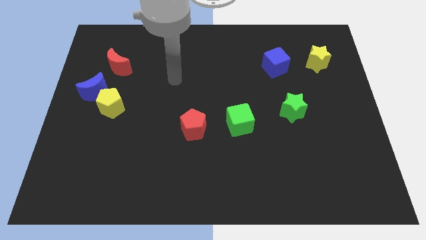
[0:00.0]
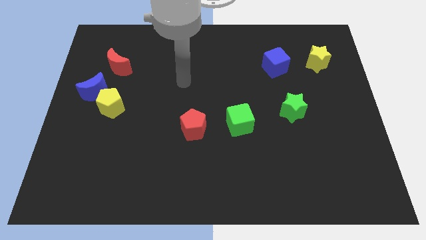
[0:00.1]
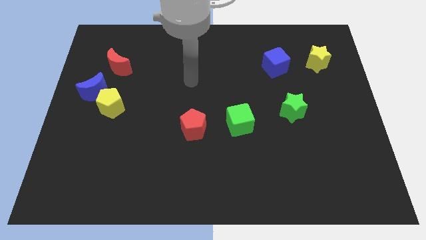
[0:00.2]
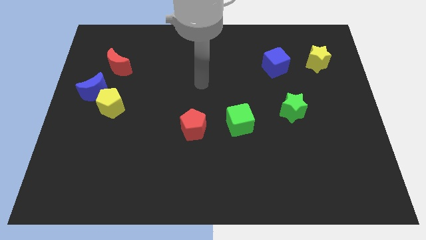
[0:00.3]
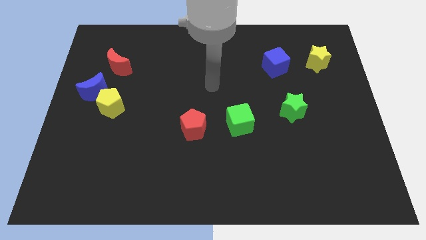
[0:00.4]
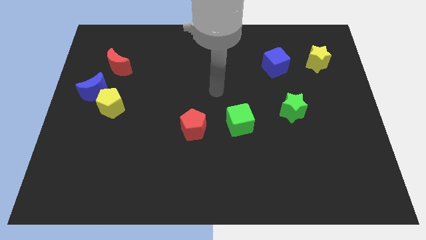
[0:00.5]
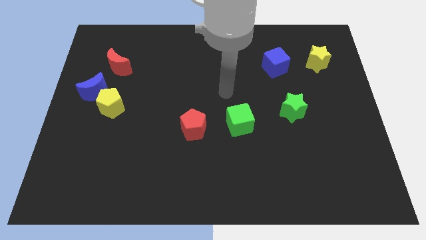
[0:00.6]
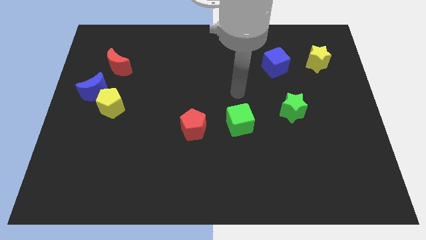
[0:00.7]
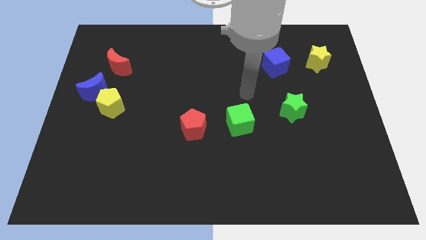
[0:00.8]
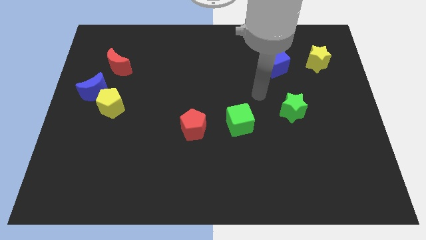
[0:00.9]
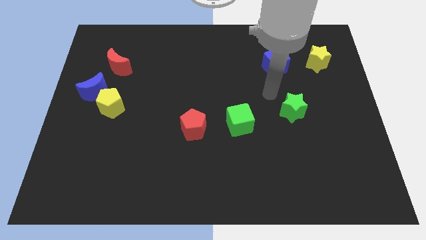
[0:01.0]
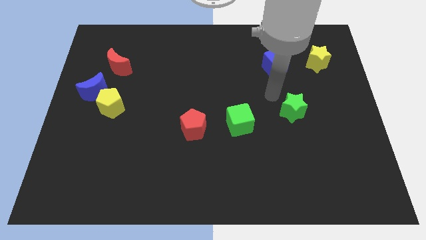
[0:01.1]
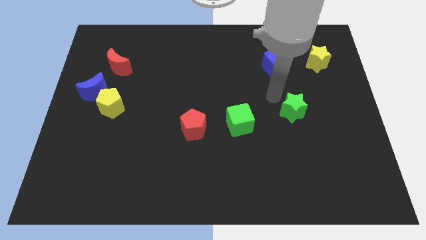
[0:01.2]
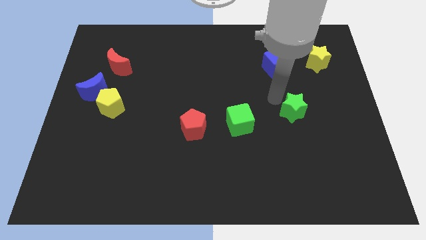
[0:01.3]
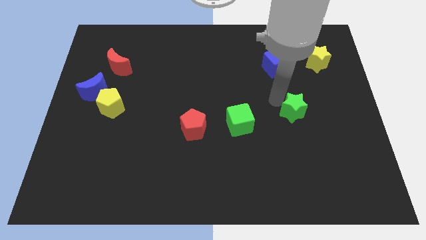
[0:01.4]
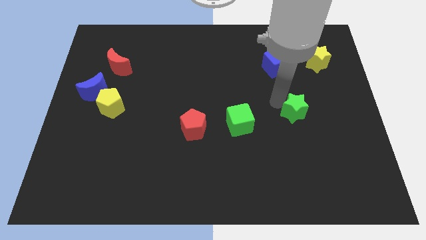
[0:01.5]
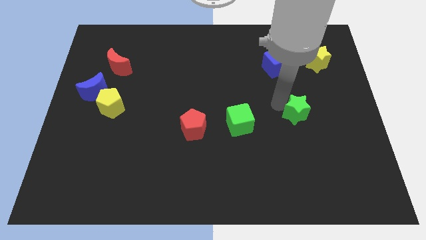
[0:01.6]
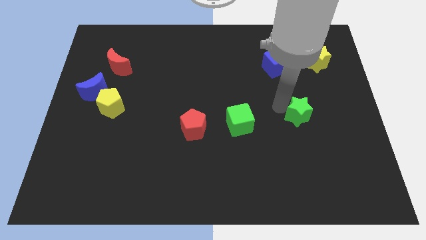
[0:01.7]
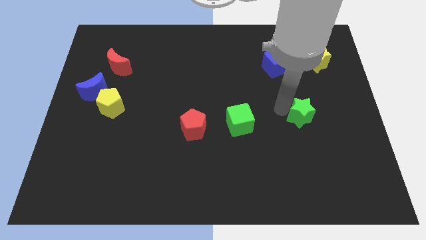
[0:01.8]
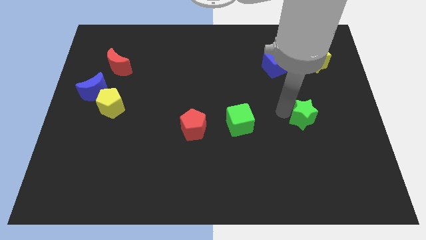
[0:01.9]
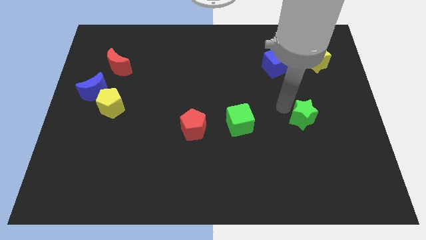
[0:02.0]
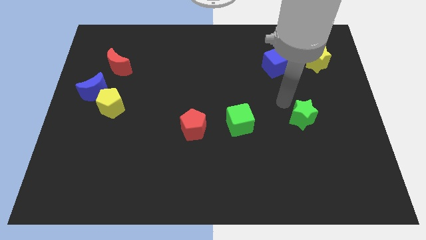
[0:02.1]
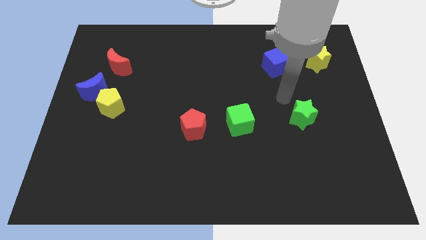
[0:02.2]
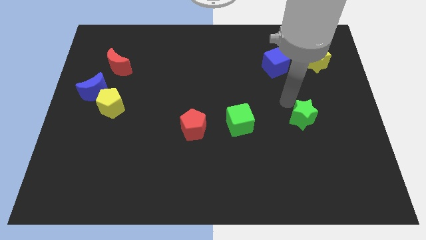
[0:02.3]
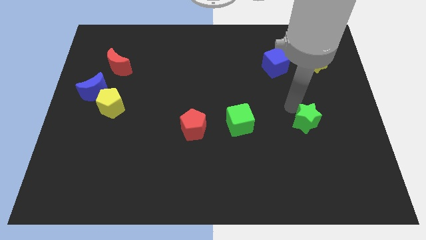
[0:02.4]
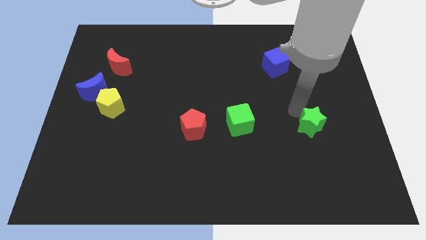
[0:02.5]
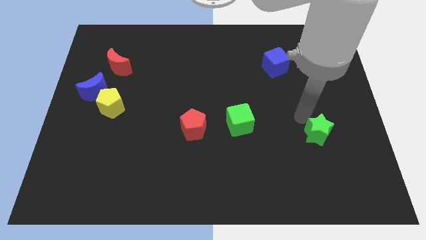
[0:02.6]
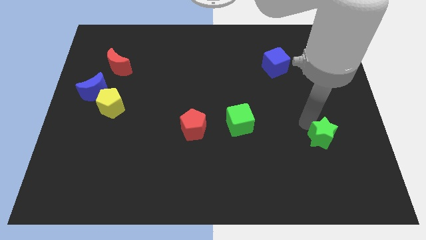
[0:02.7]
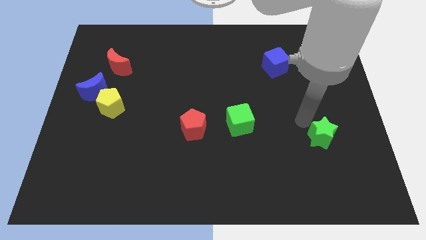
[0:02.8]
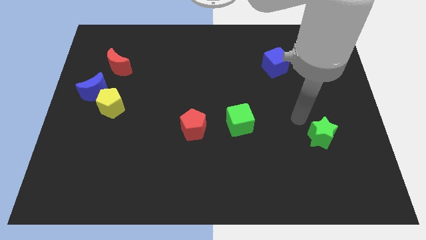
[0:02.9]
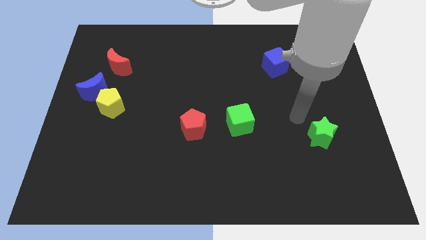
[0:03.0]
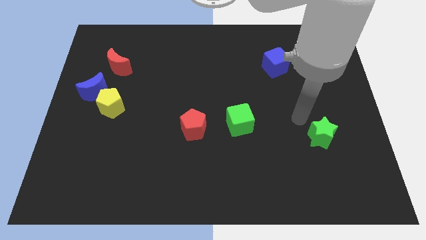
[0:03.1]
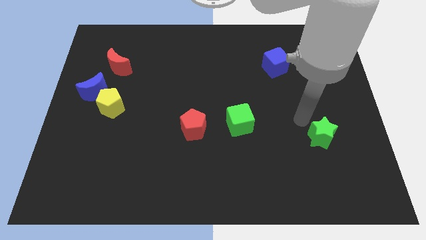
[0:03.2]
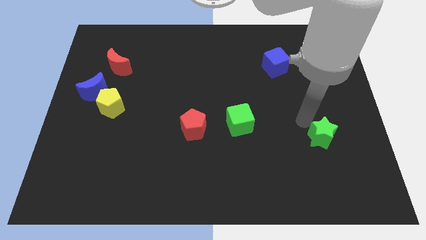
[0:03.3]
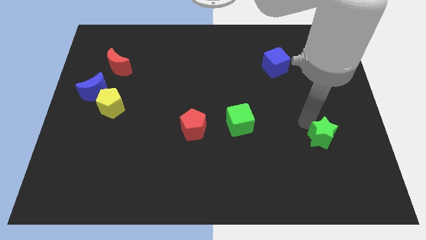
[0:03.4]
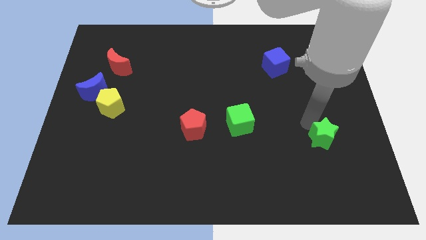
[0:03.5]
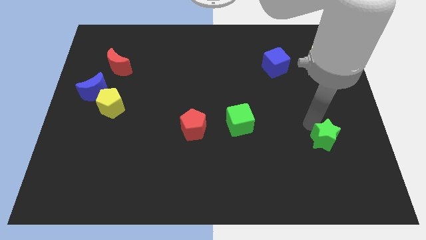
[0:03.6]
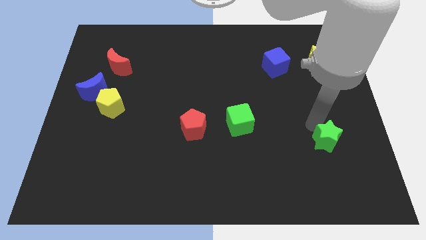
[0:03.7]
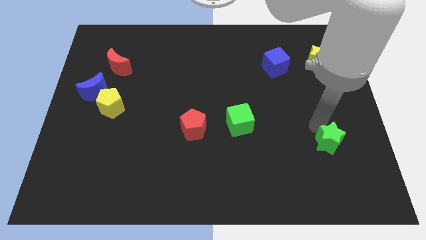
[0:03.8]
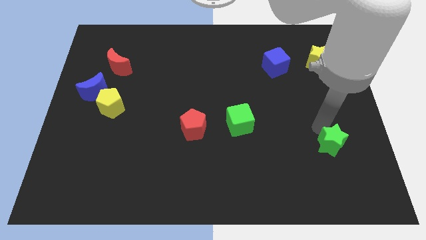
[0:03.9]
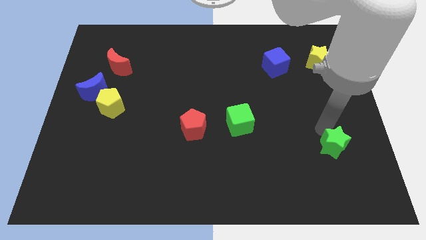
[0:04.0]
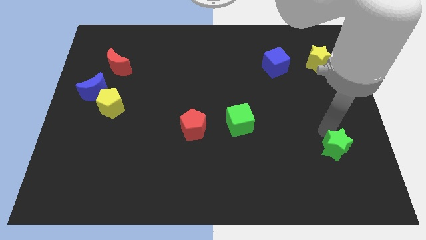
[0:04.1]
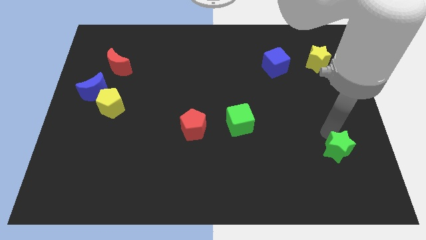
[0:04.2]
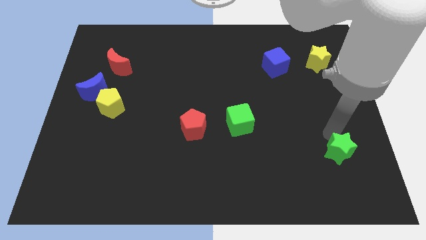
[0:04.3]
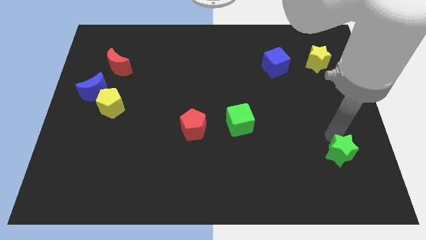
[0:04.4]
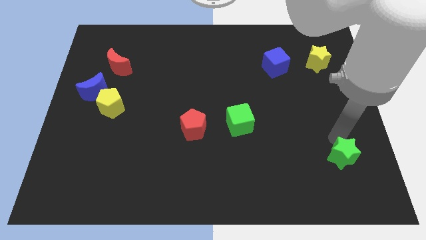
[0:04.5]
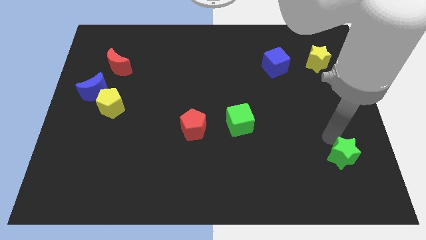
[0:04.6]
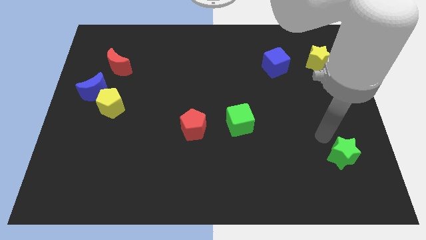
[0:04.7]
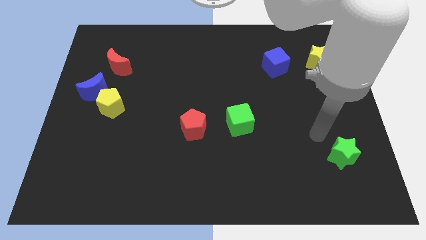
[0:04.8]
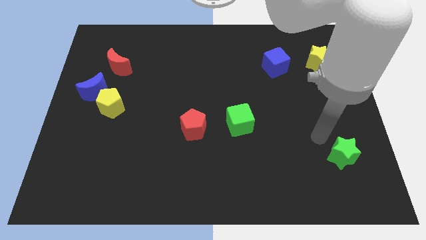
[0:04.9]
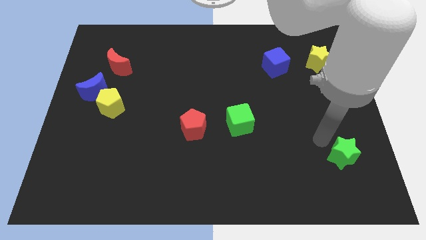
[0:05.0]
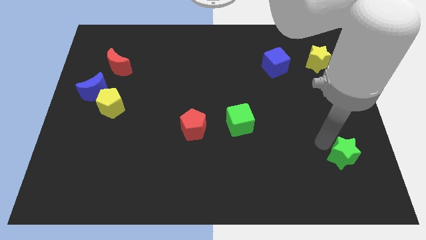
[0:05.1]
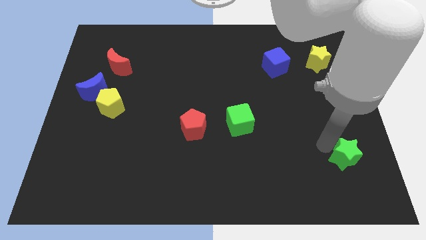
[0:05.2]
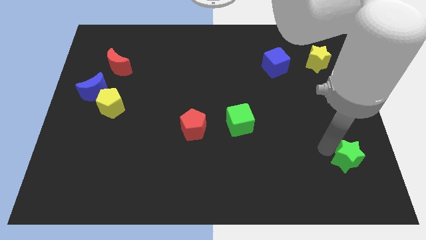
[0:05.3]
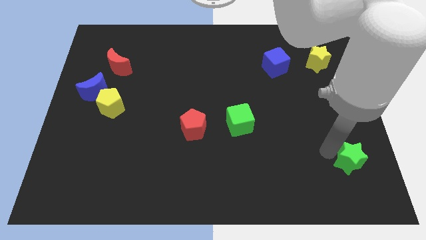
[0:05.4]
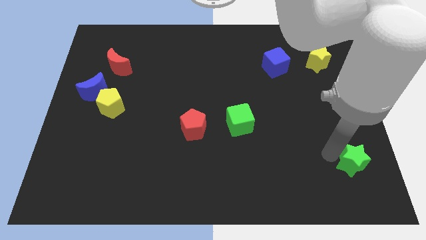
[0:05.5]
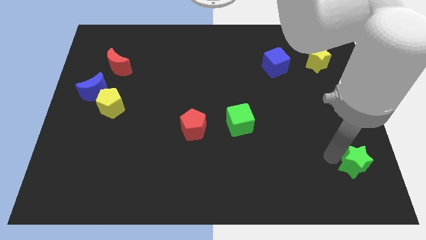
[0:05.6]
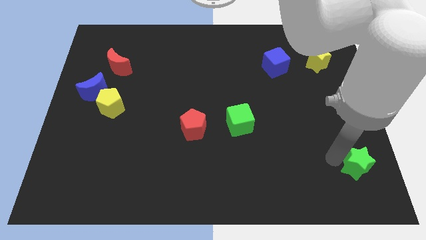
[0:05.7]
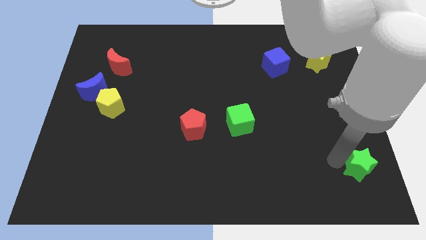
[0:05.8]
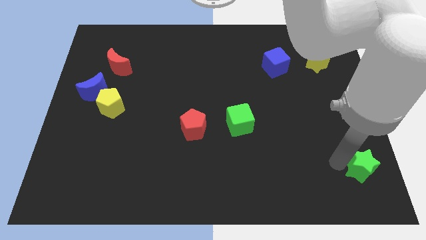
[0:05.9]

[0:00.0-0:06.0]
slide the green star to the lower right corner
